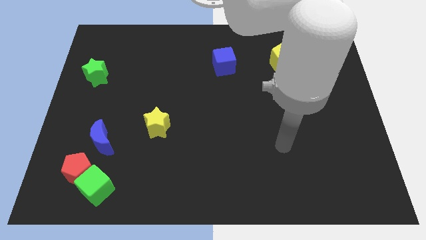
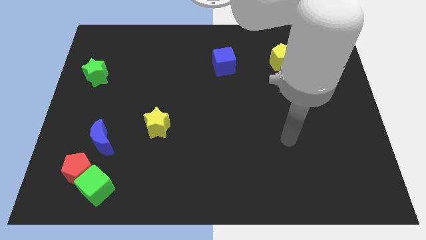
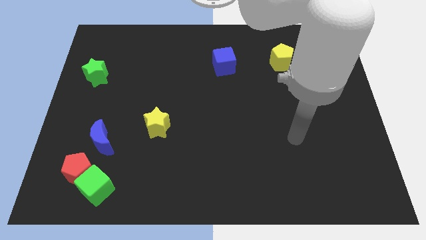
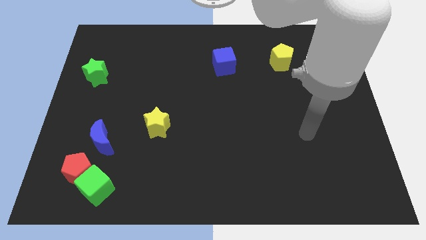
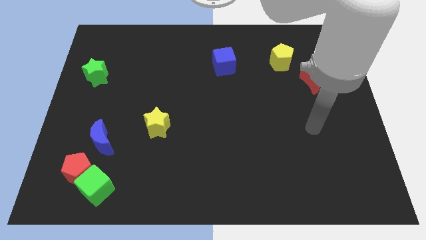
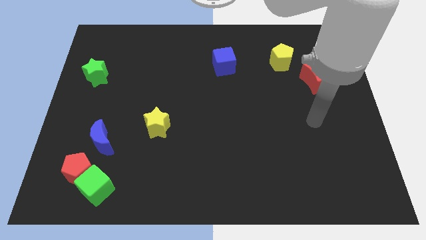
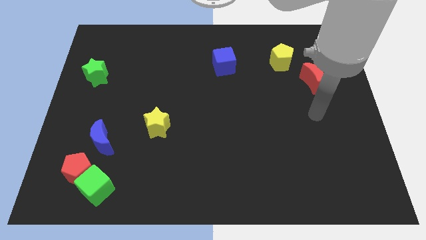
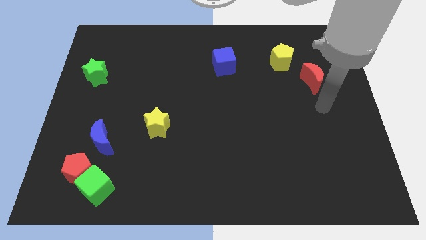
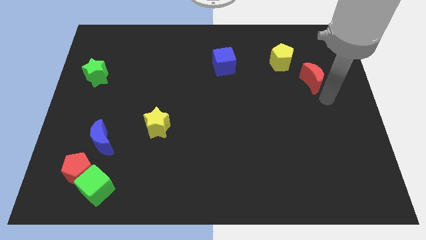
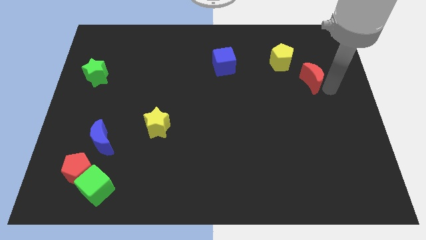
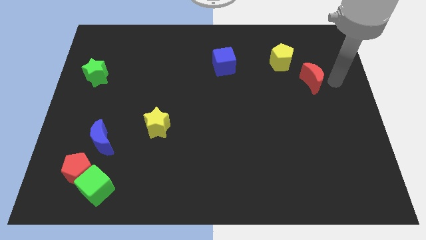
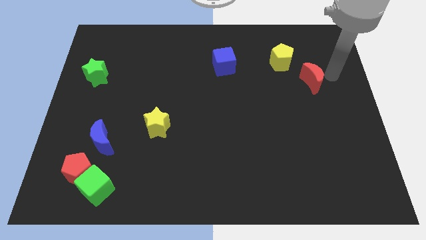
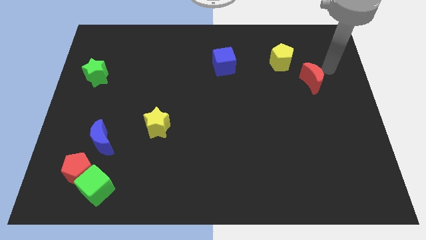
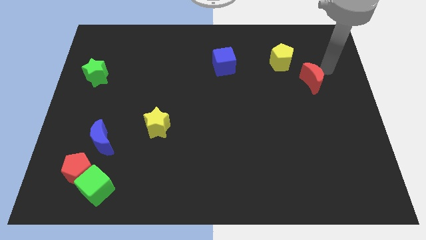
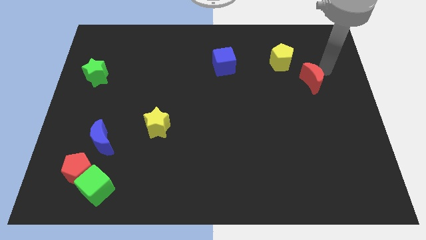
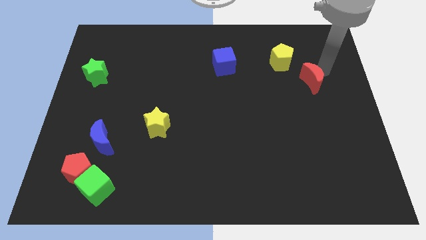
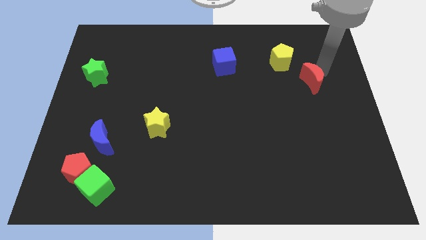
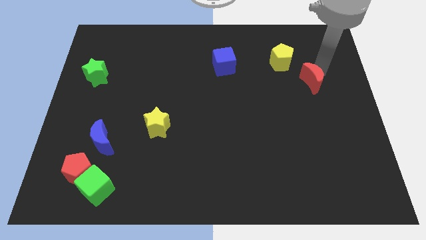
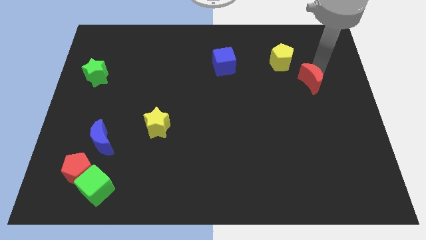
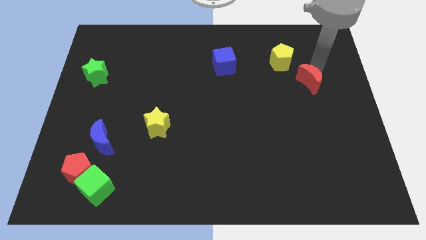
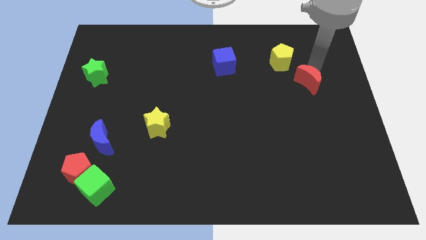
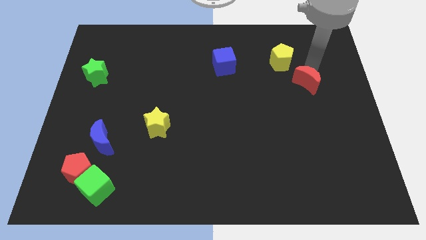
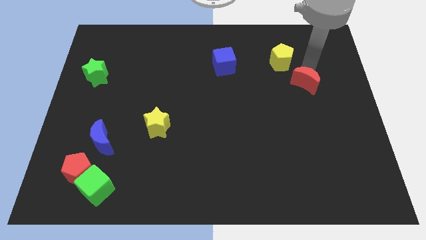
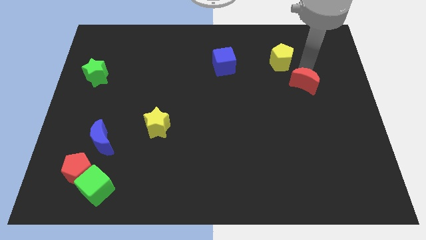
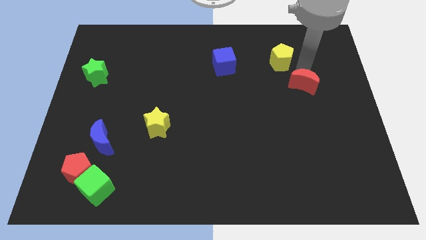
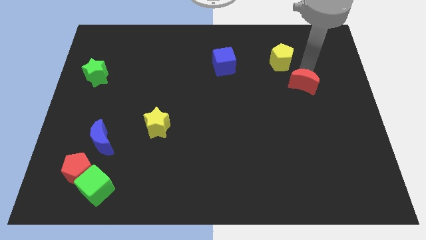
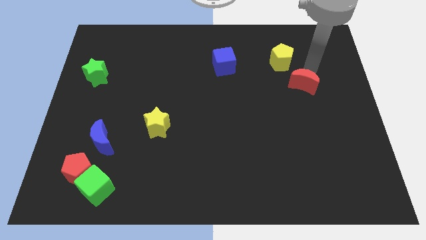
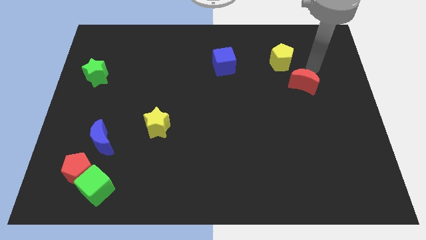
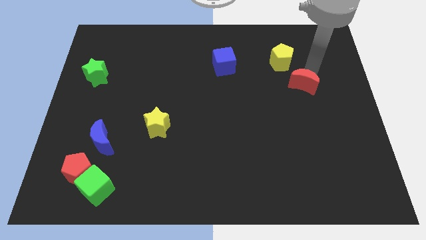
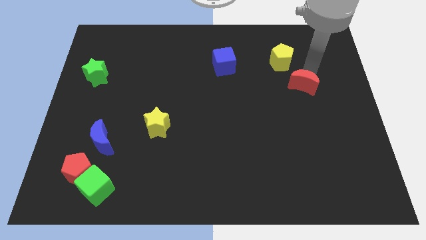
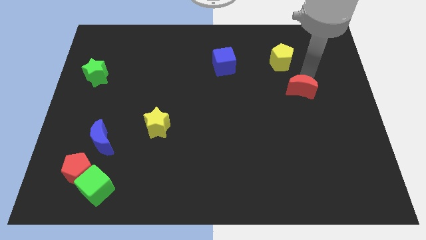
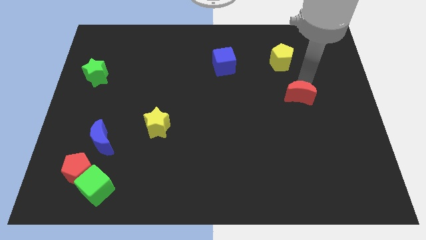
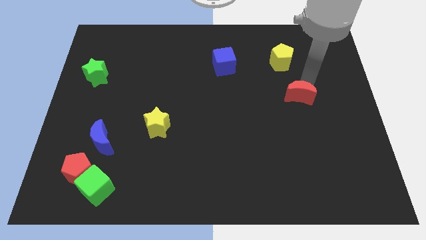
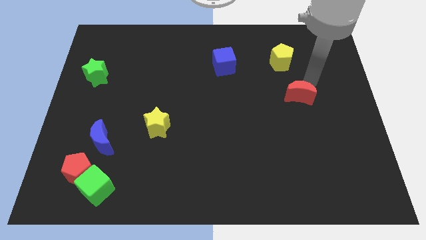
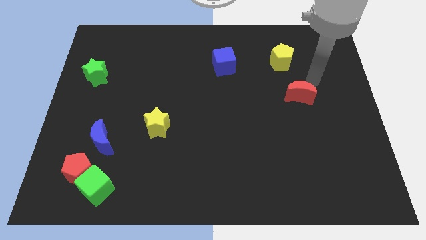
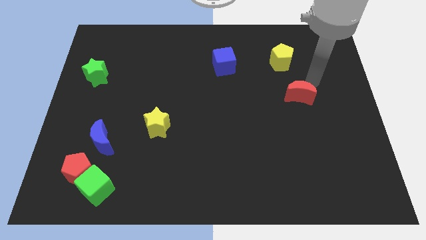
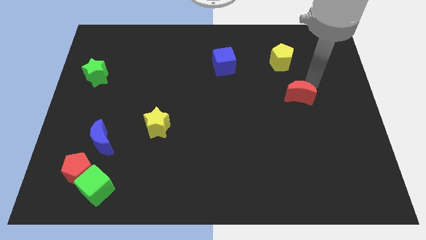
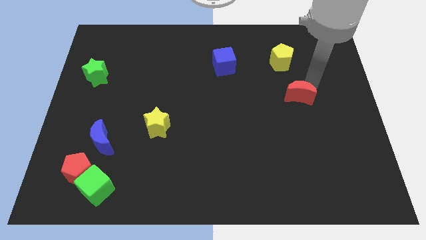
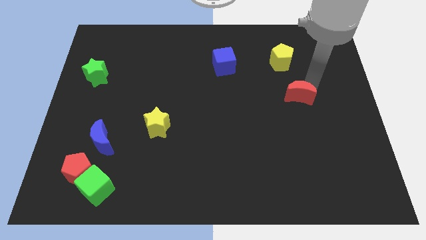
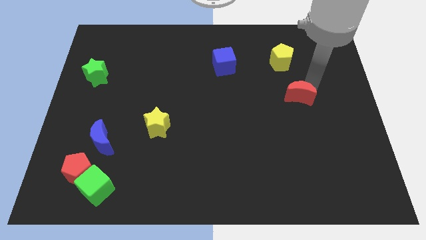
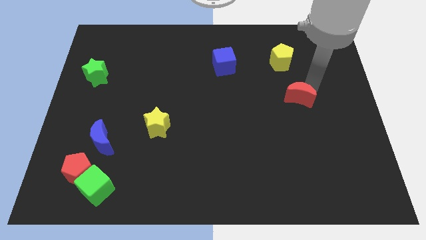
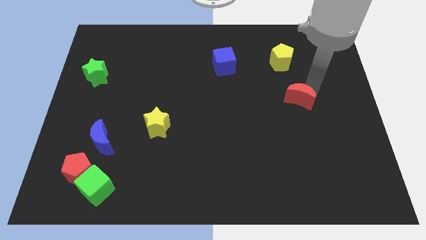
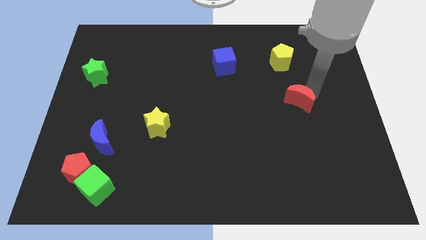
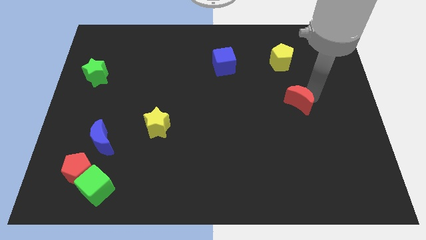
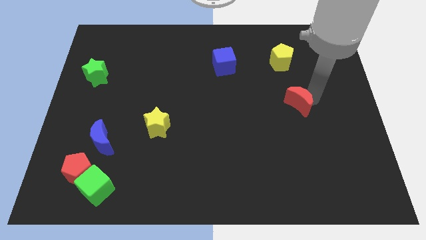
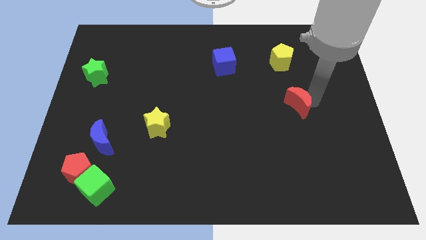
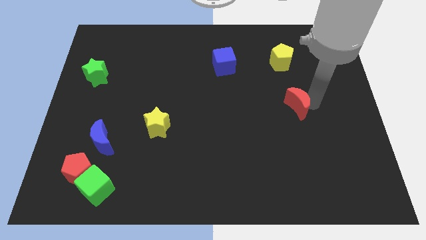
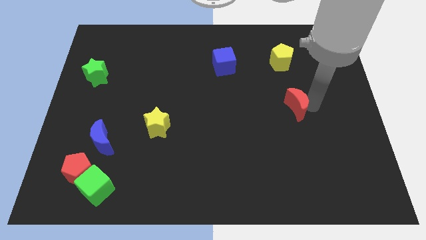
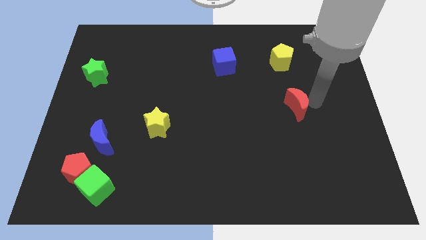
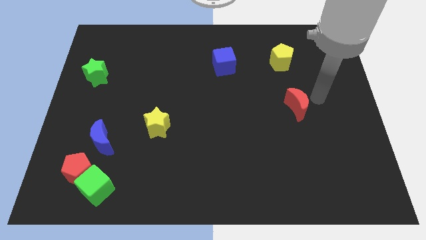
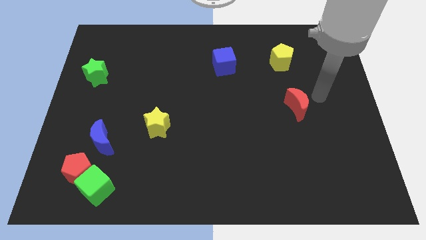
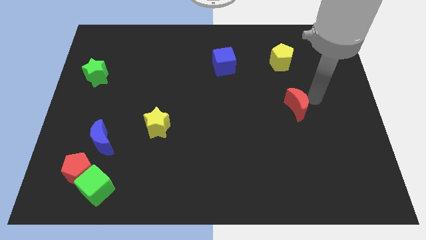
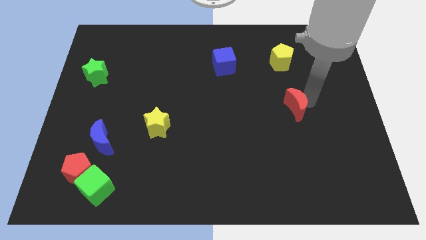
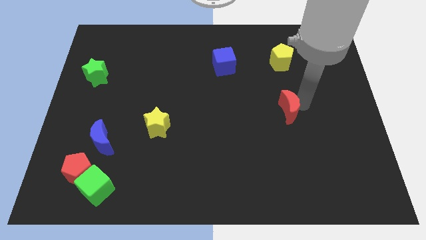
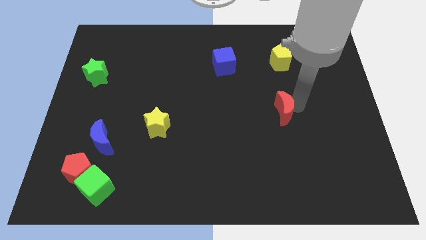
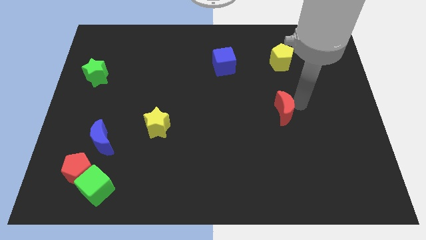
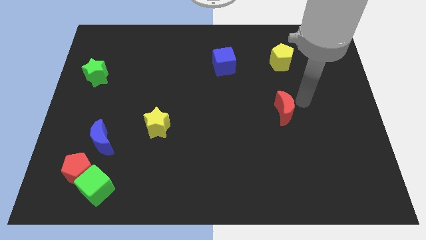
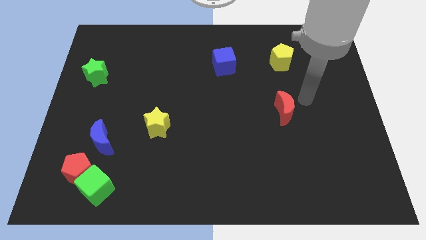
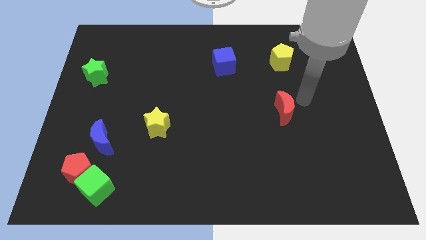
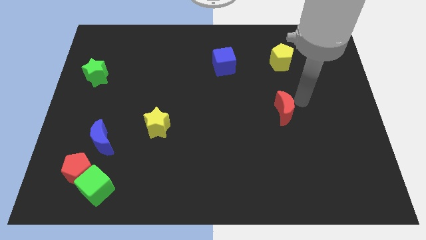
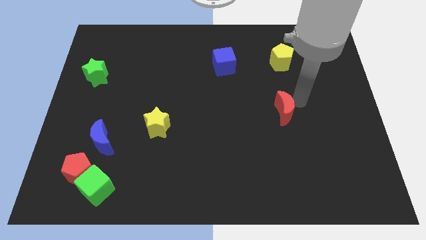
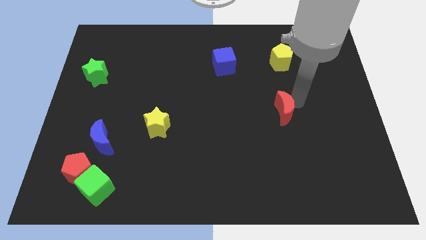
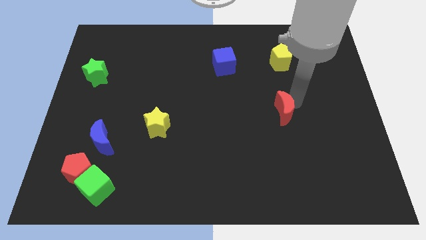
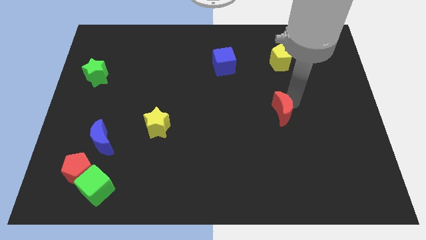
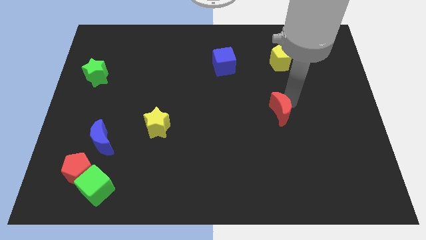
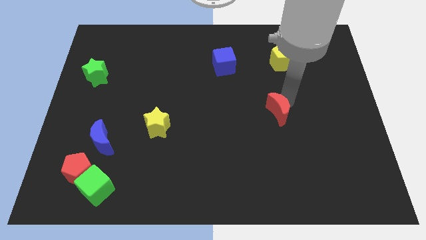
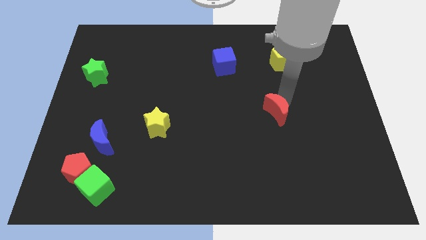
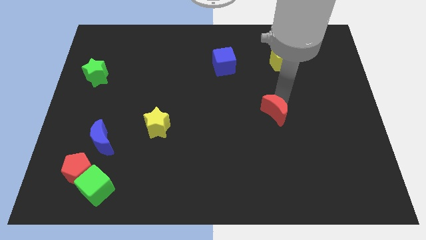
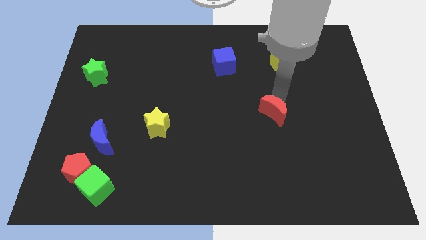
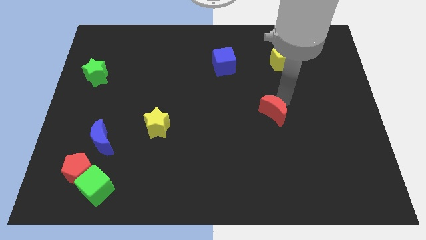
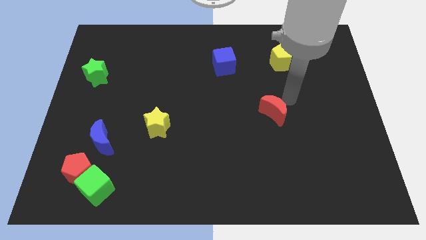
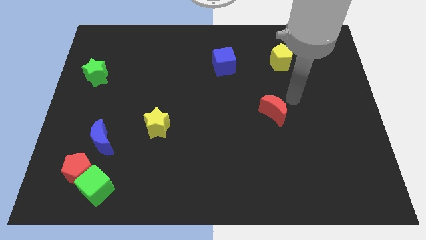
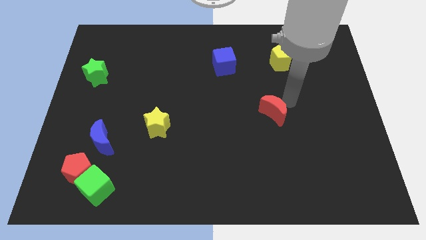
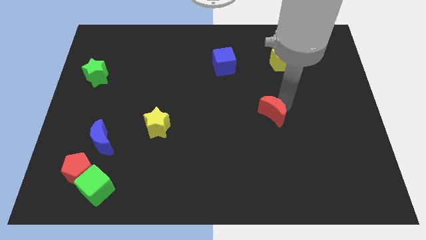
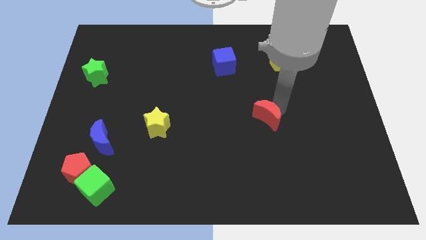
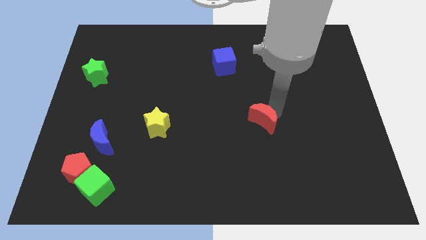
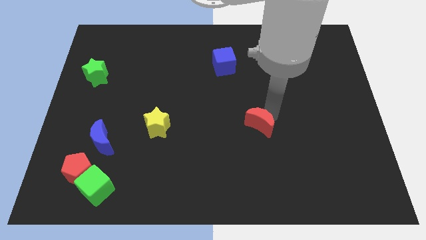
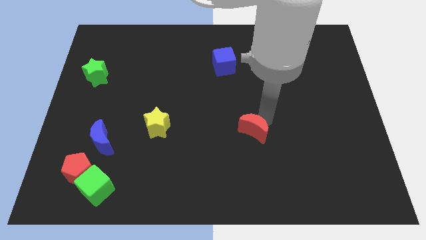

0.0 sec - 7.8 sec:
move the red moon downwards and to the left diagonally

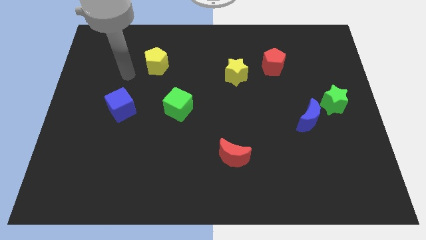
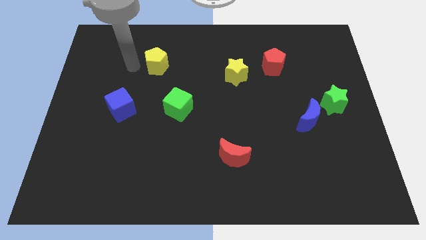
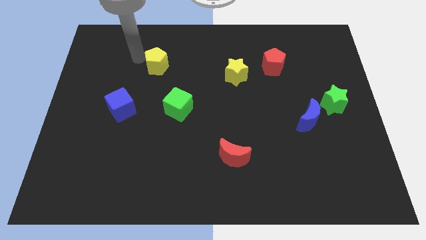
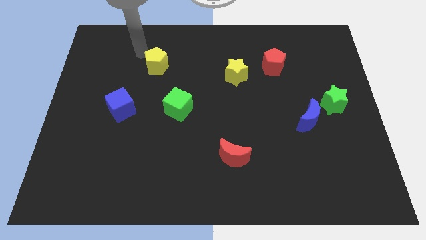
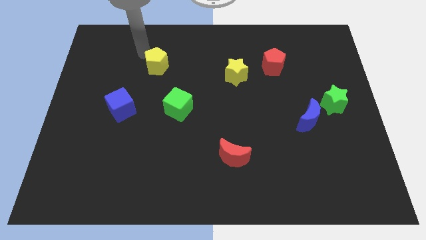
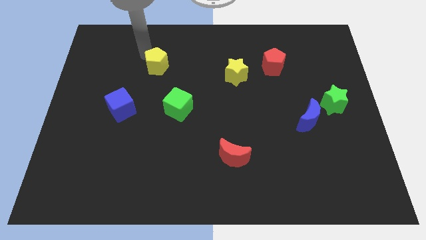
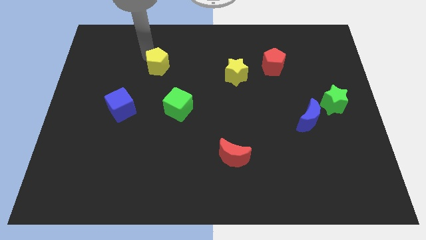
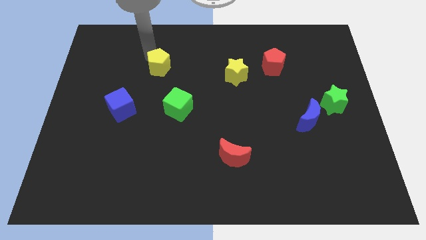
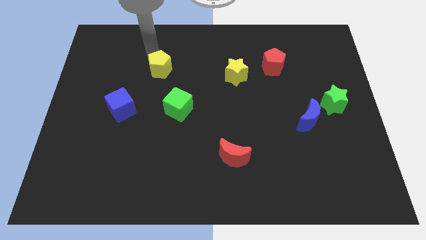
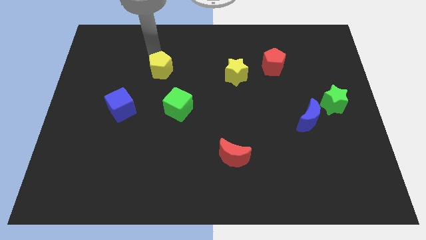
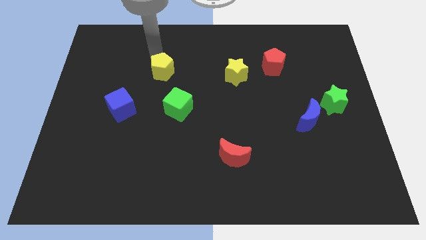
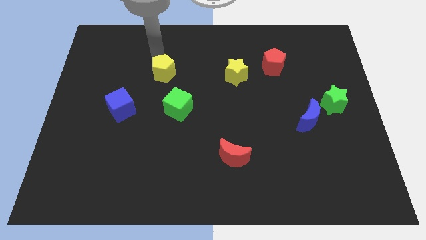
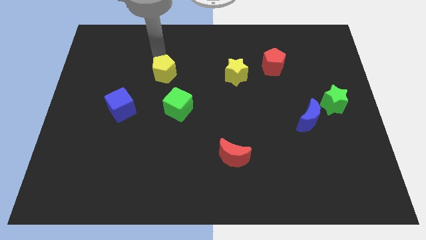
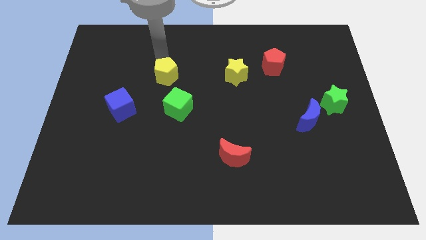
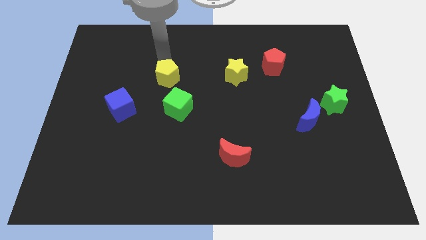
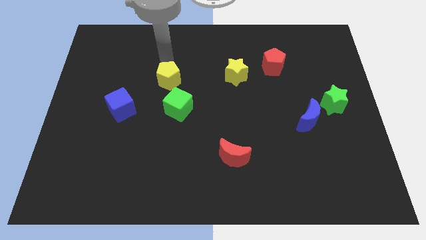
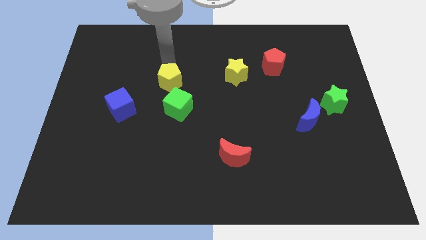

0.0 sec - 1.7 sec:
slightly slide the yellow pentagon diagonally downwards and right
